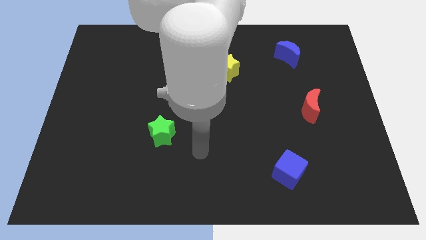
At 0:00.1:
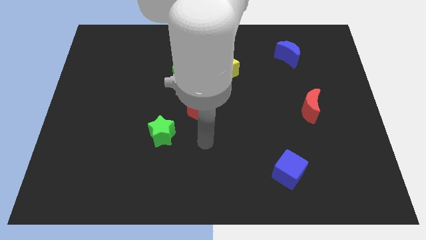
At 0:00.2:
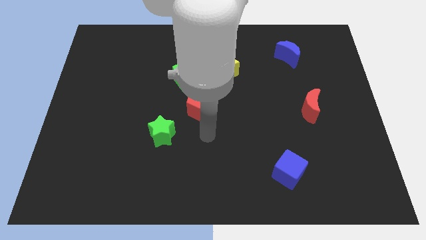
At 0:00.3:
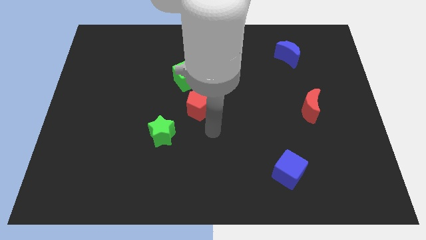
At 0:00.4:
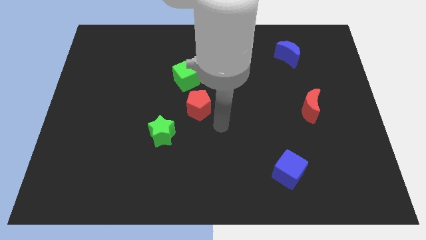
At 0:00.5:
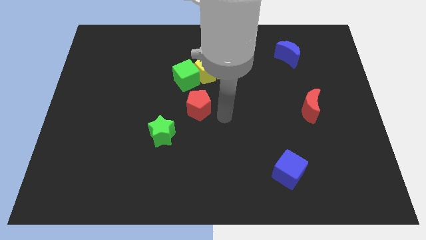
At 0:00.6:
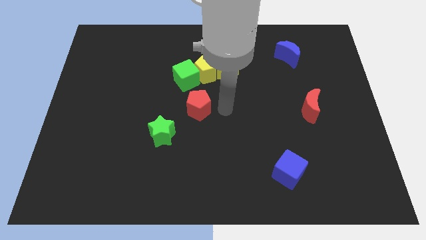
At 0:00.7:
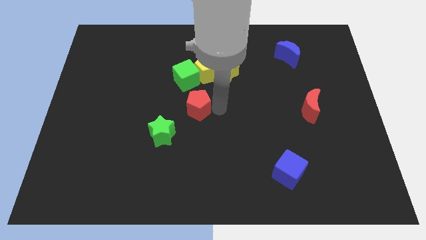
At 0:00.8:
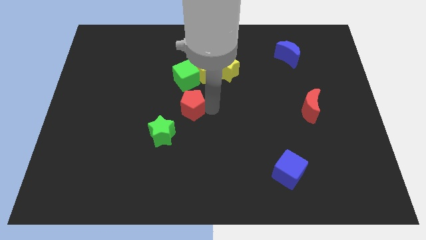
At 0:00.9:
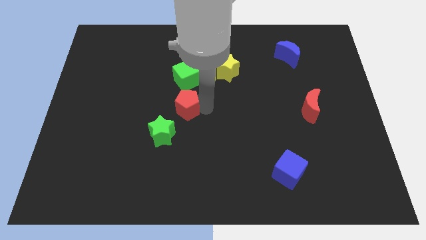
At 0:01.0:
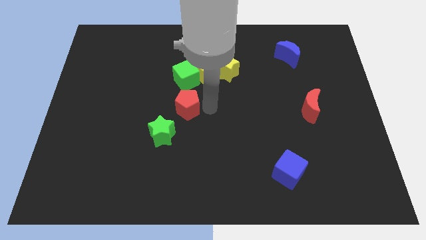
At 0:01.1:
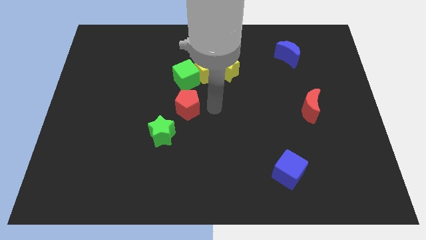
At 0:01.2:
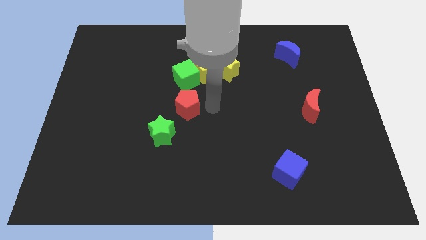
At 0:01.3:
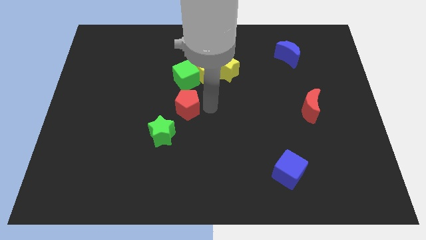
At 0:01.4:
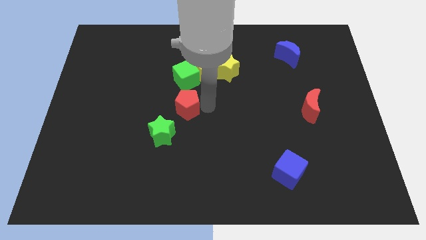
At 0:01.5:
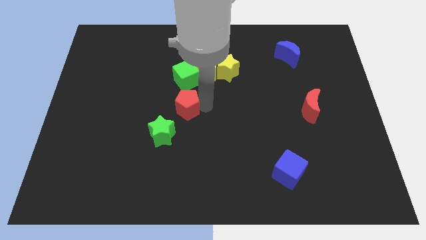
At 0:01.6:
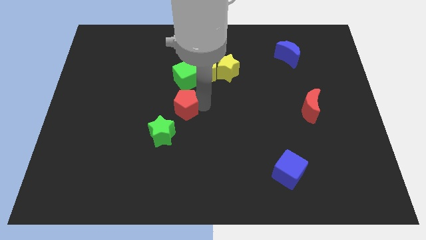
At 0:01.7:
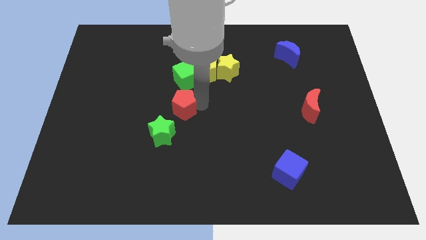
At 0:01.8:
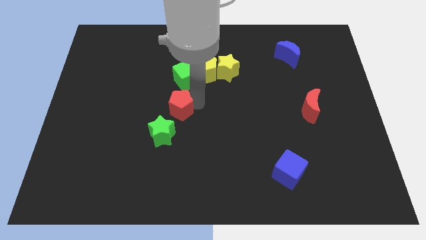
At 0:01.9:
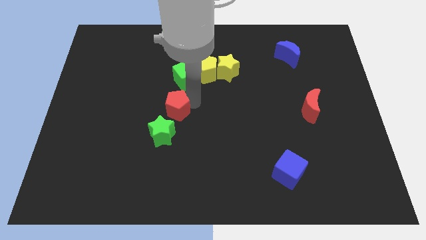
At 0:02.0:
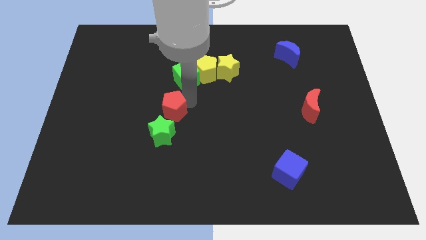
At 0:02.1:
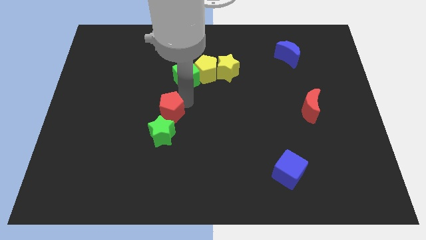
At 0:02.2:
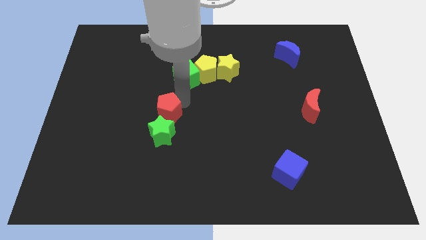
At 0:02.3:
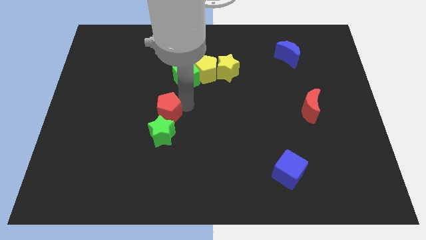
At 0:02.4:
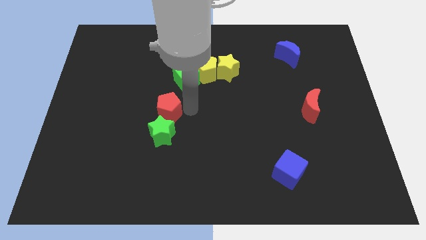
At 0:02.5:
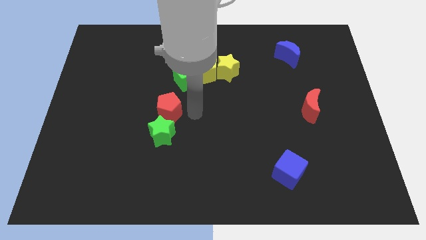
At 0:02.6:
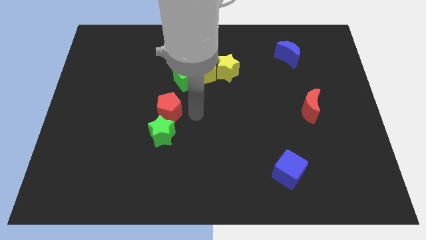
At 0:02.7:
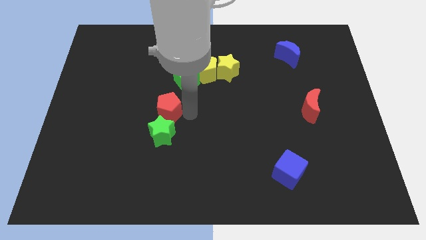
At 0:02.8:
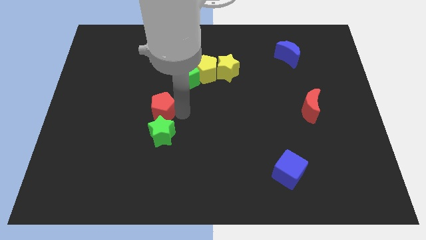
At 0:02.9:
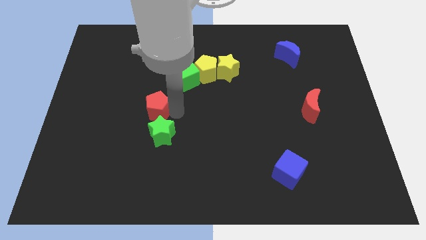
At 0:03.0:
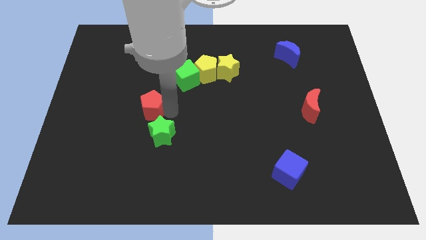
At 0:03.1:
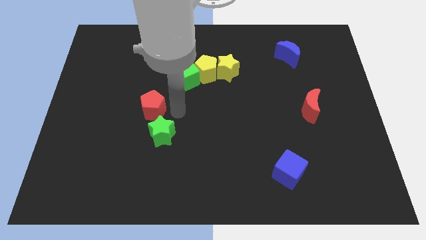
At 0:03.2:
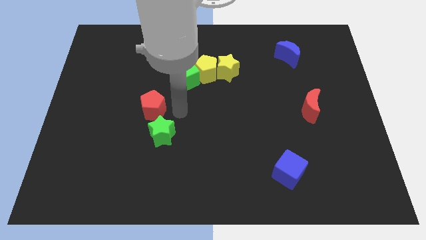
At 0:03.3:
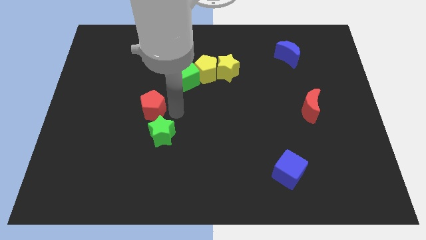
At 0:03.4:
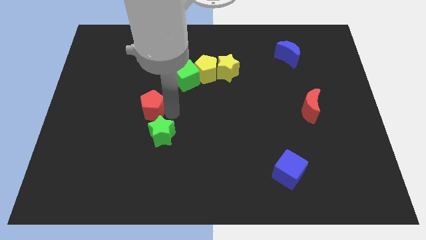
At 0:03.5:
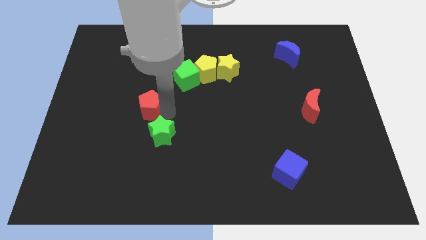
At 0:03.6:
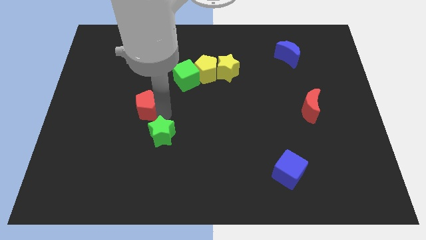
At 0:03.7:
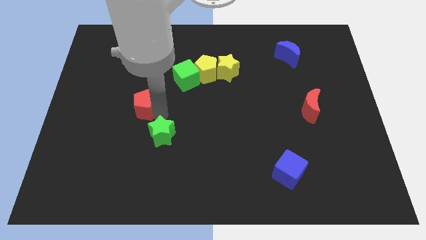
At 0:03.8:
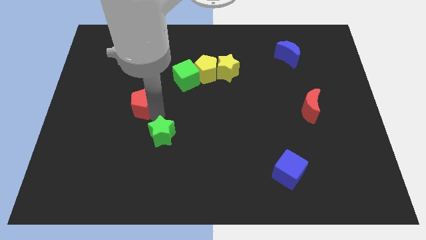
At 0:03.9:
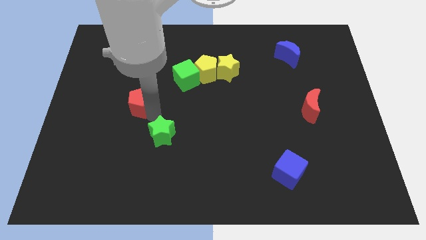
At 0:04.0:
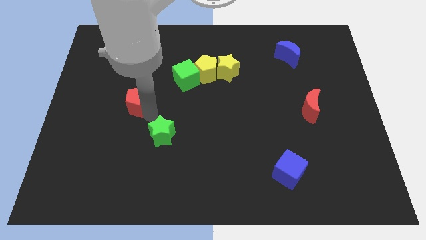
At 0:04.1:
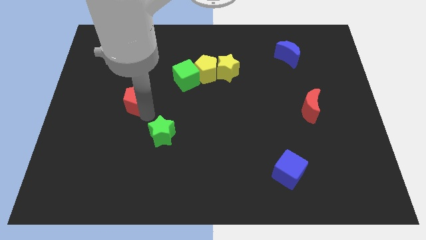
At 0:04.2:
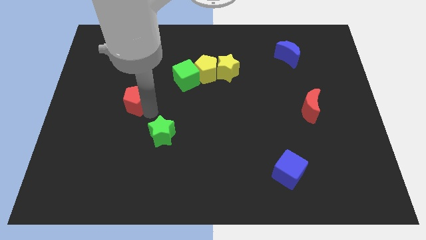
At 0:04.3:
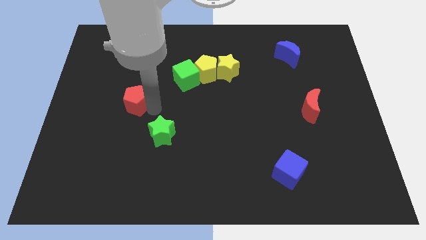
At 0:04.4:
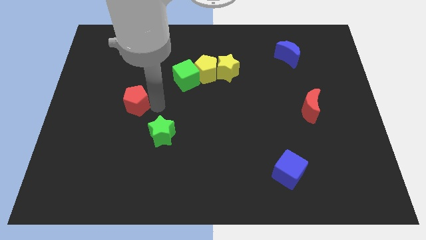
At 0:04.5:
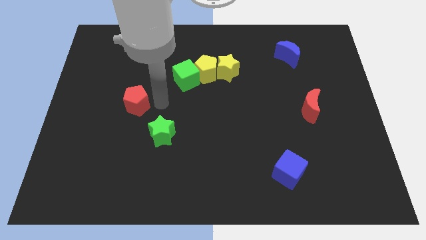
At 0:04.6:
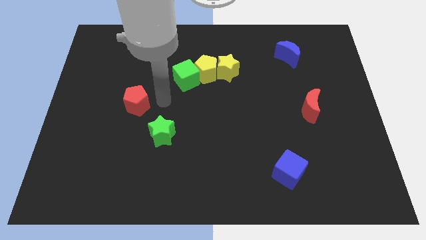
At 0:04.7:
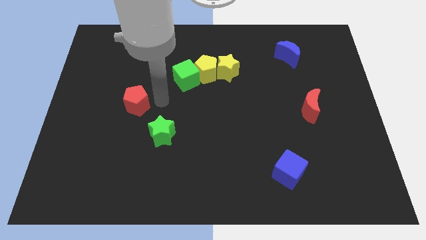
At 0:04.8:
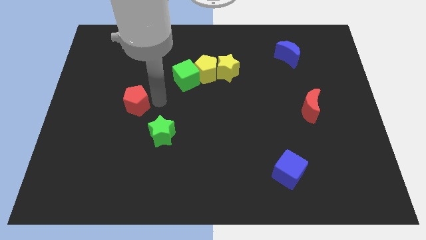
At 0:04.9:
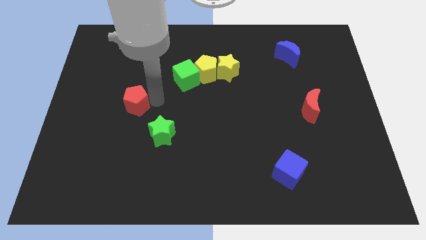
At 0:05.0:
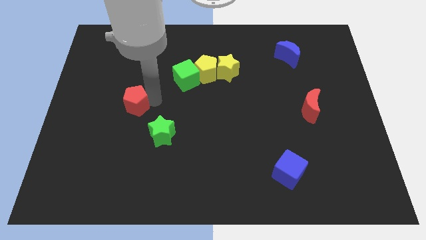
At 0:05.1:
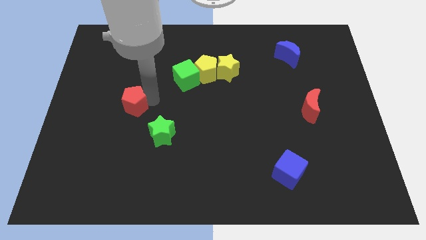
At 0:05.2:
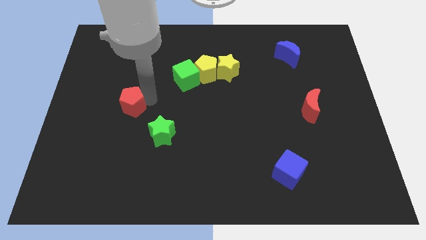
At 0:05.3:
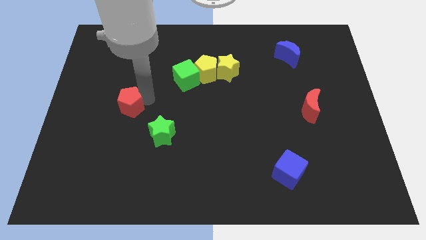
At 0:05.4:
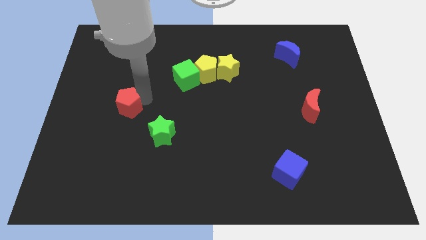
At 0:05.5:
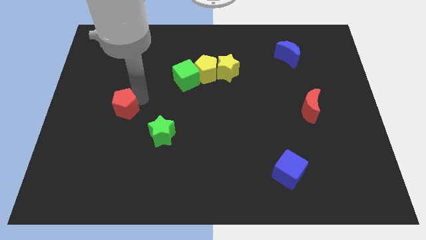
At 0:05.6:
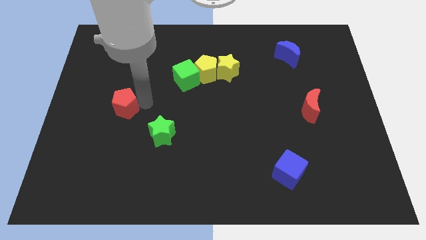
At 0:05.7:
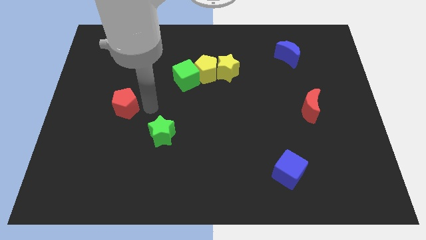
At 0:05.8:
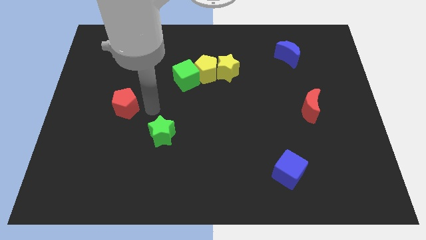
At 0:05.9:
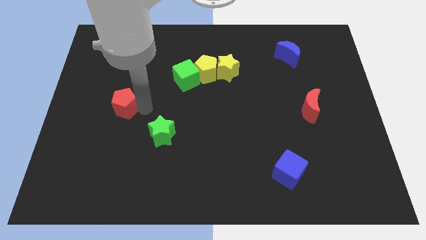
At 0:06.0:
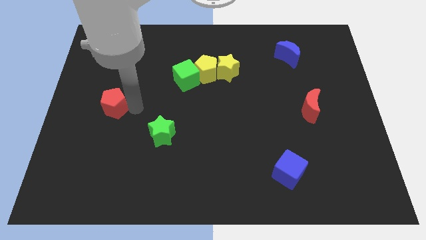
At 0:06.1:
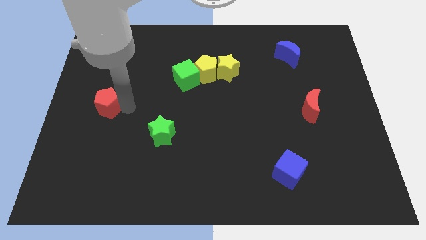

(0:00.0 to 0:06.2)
move the red pentagon to the left side

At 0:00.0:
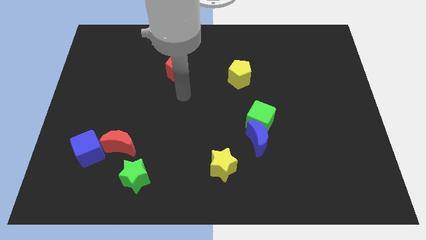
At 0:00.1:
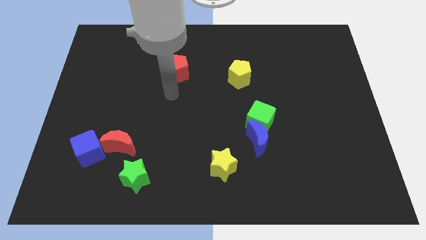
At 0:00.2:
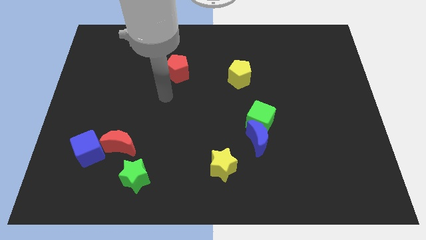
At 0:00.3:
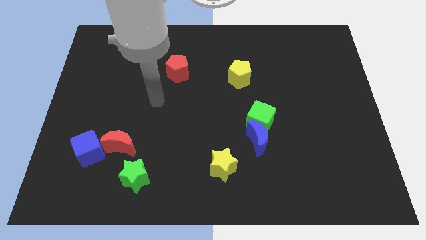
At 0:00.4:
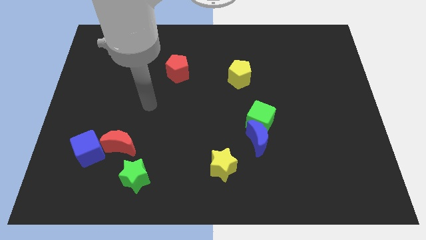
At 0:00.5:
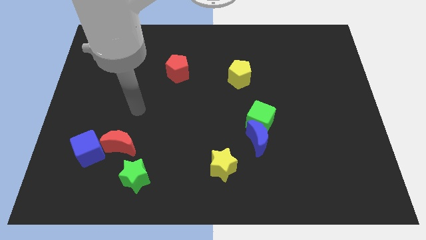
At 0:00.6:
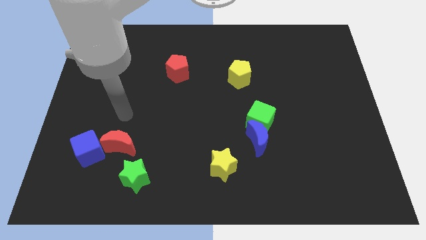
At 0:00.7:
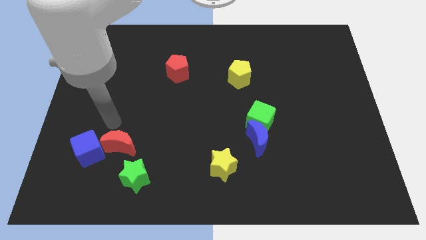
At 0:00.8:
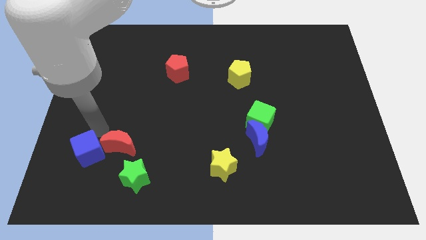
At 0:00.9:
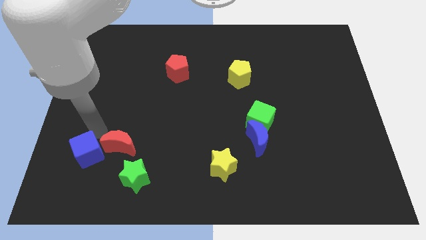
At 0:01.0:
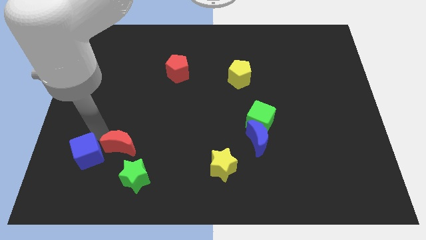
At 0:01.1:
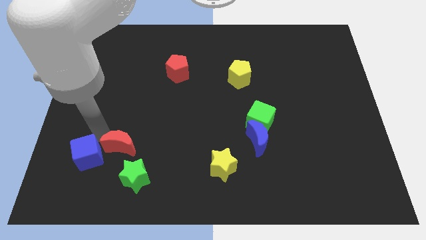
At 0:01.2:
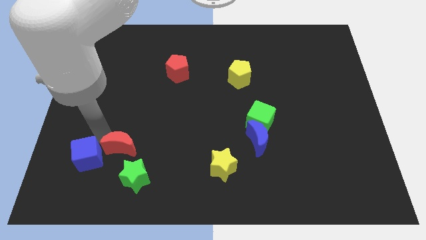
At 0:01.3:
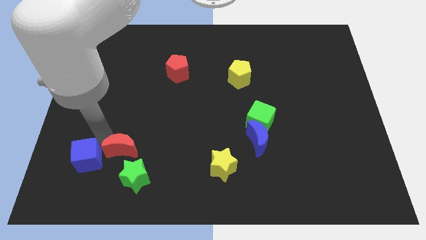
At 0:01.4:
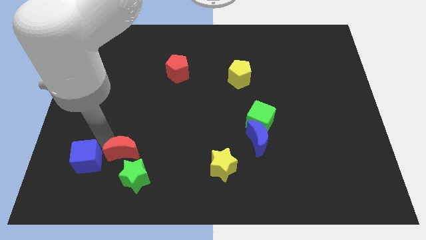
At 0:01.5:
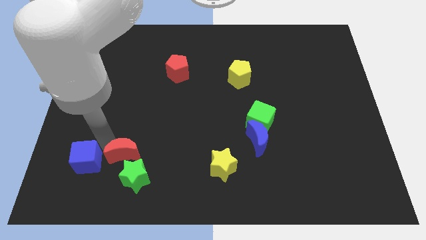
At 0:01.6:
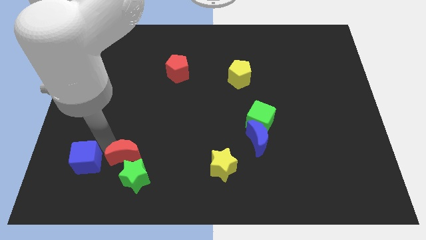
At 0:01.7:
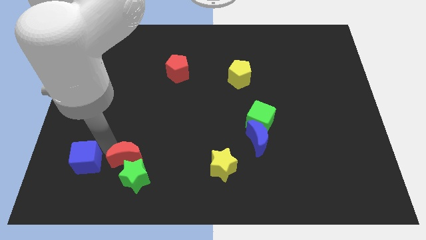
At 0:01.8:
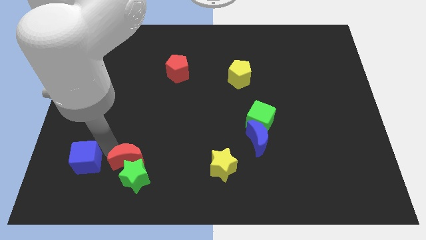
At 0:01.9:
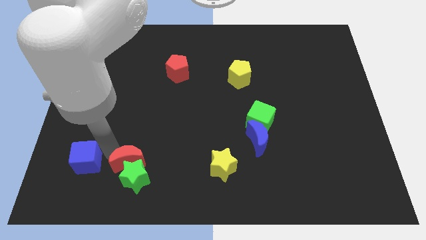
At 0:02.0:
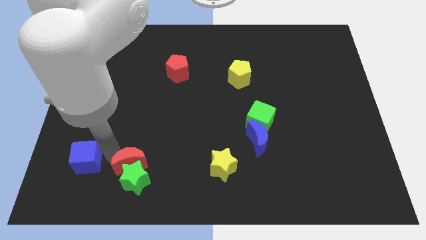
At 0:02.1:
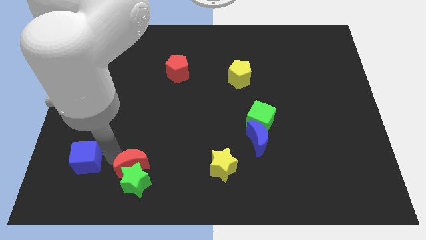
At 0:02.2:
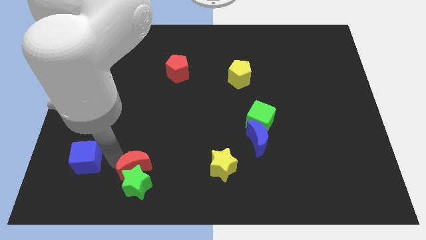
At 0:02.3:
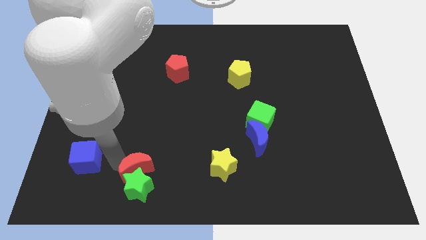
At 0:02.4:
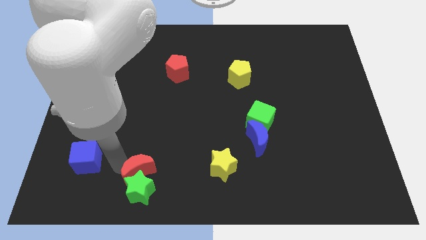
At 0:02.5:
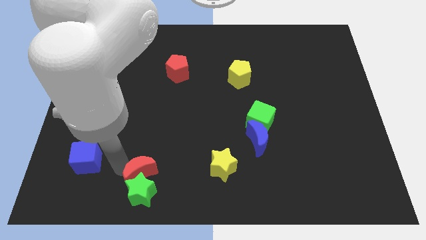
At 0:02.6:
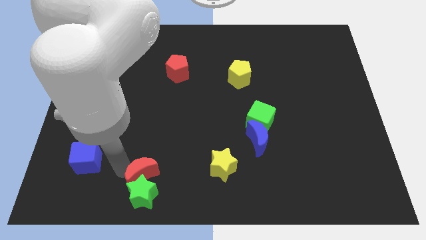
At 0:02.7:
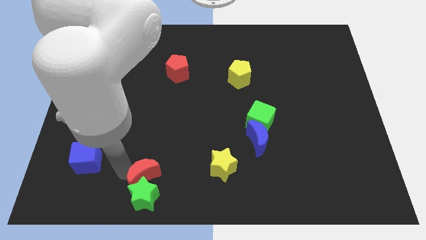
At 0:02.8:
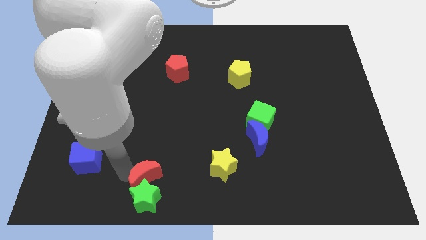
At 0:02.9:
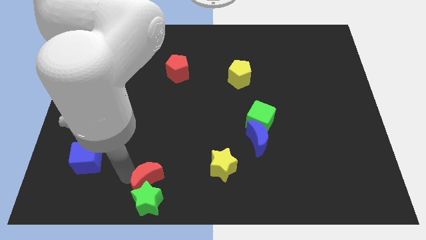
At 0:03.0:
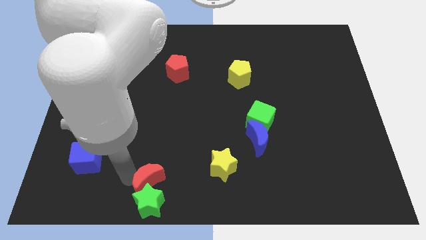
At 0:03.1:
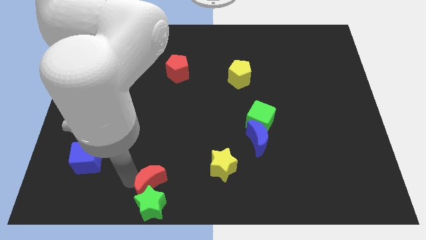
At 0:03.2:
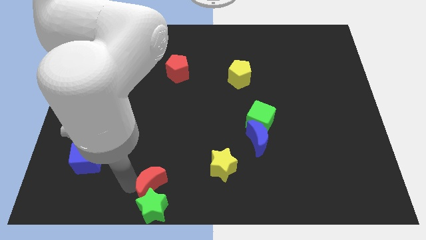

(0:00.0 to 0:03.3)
push the red moon to the bottom side
